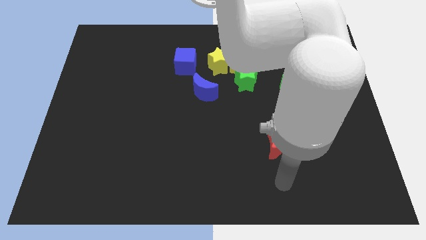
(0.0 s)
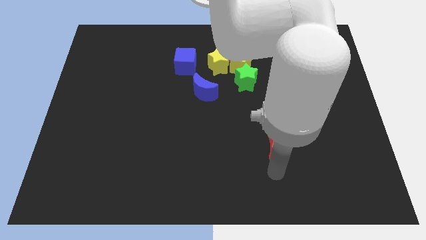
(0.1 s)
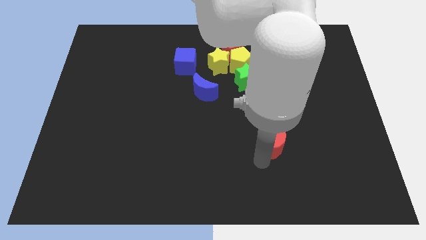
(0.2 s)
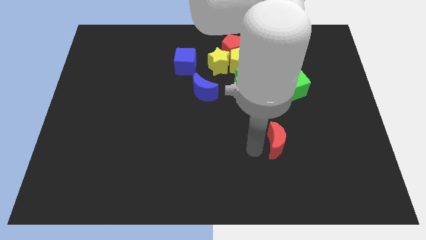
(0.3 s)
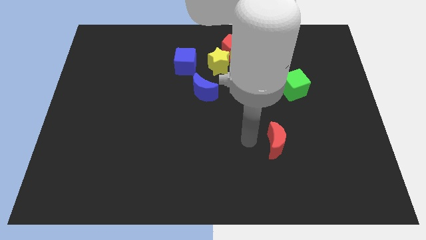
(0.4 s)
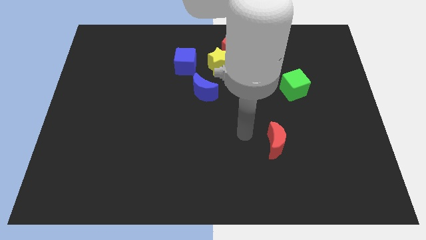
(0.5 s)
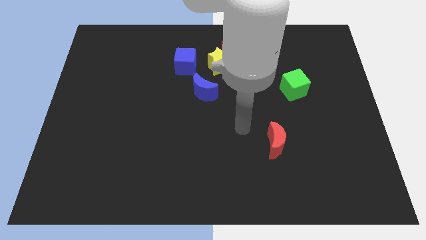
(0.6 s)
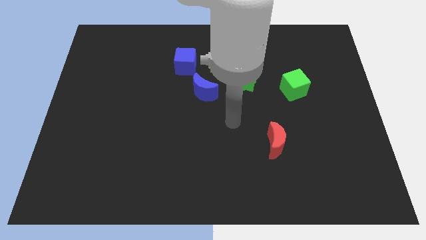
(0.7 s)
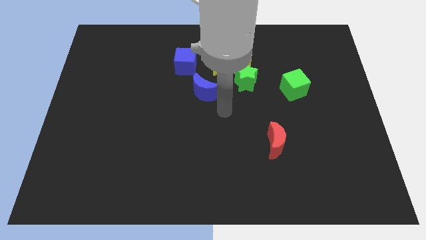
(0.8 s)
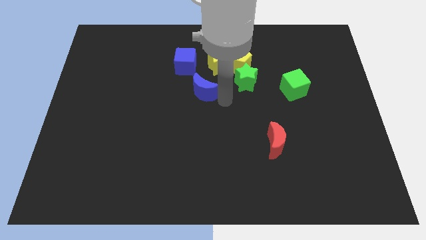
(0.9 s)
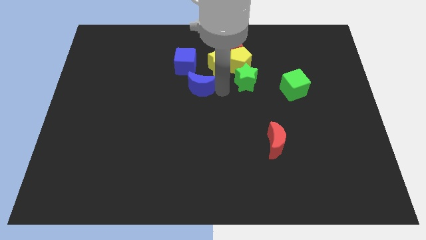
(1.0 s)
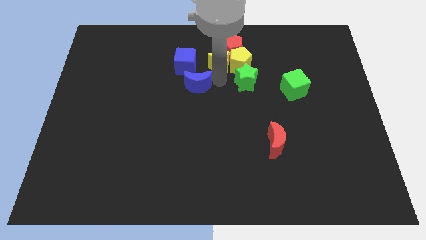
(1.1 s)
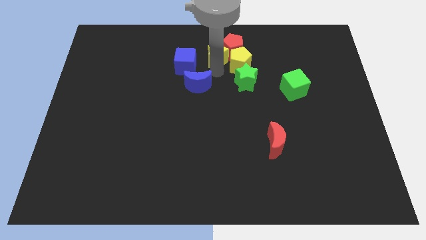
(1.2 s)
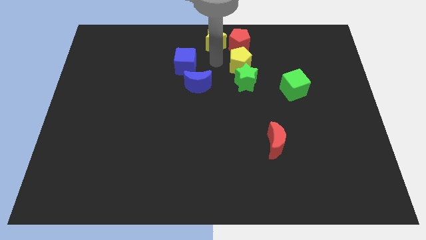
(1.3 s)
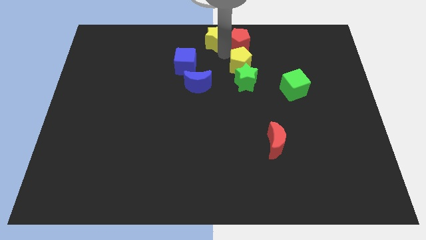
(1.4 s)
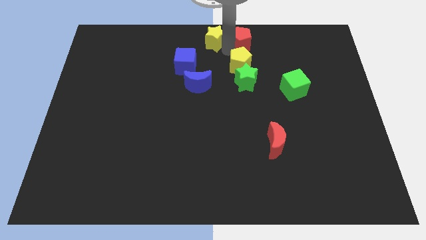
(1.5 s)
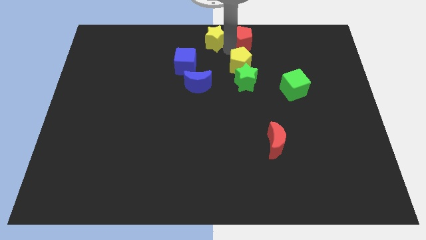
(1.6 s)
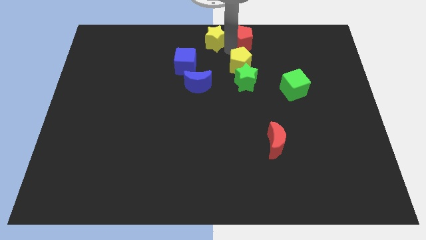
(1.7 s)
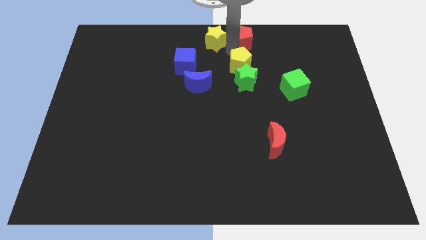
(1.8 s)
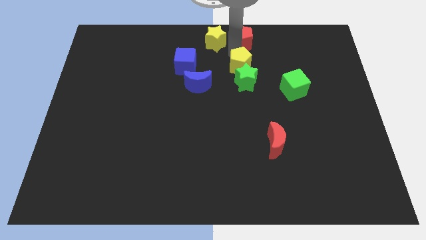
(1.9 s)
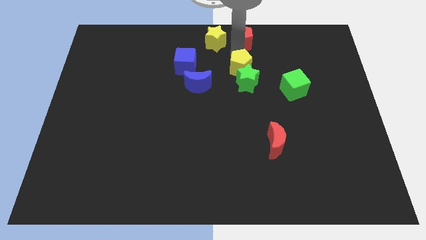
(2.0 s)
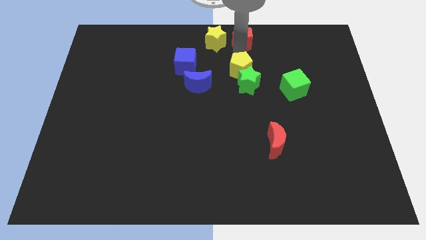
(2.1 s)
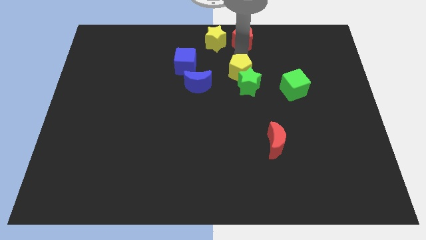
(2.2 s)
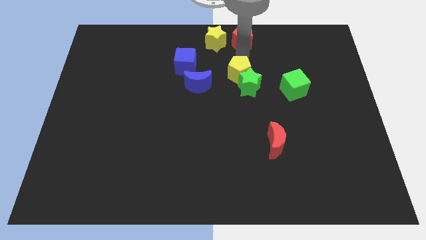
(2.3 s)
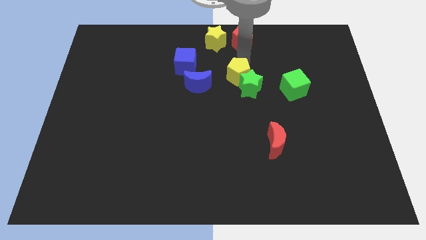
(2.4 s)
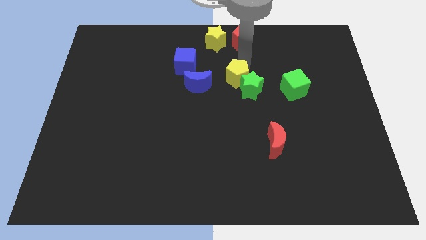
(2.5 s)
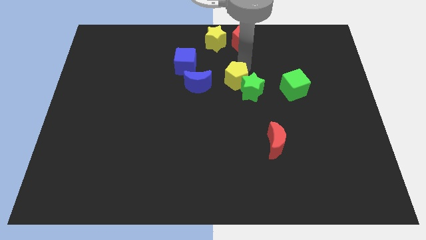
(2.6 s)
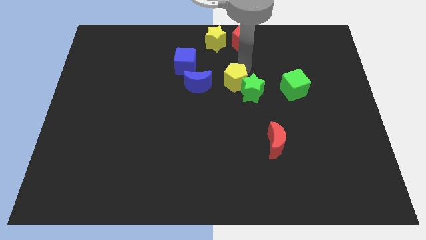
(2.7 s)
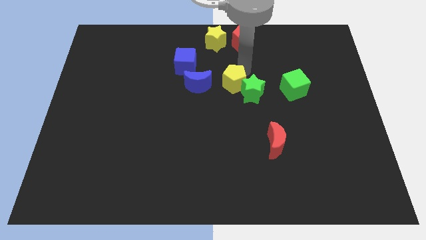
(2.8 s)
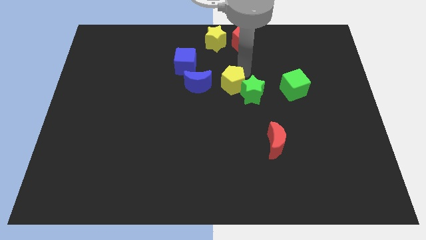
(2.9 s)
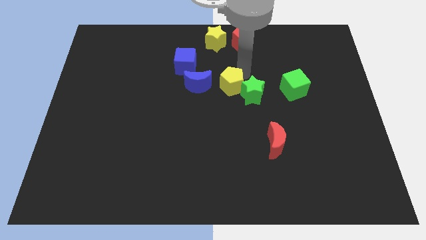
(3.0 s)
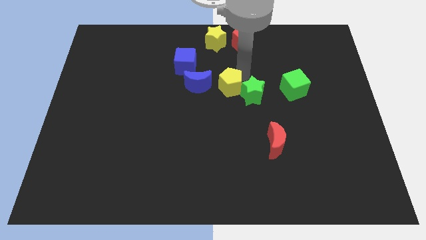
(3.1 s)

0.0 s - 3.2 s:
pull the yellow pentagon apart from the clump

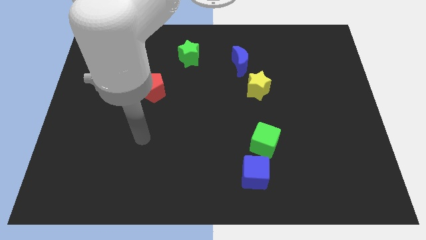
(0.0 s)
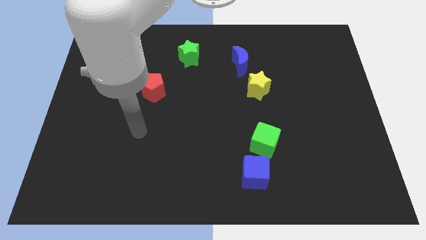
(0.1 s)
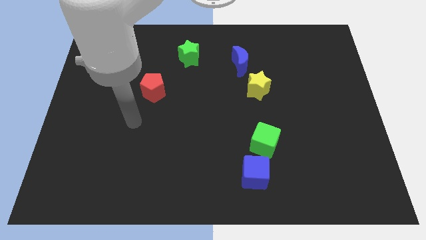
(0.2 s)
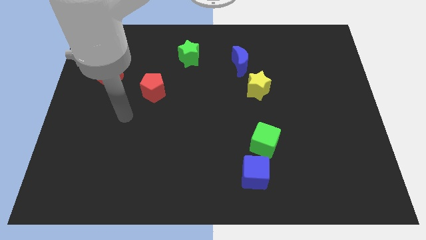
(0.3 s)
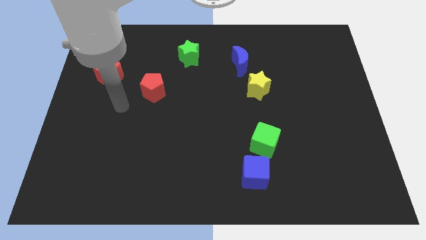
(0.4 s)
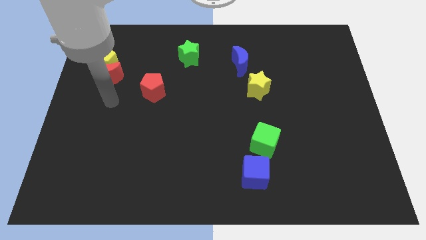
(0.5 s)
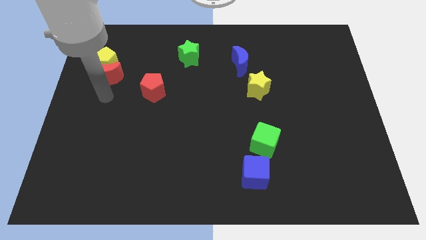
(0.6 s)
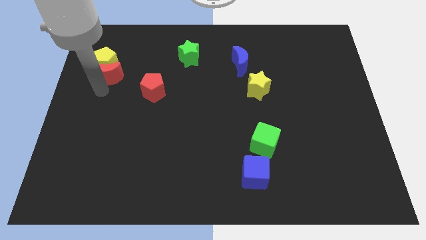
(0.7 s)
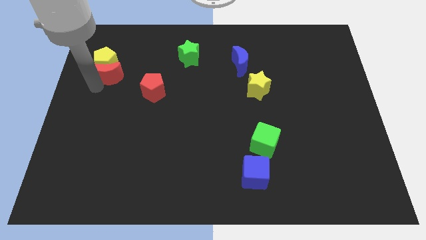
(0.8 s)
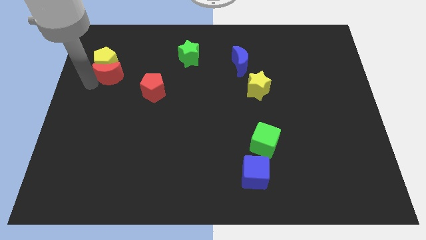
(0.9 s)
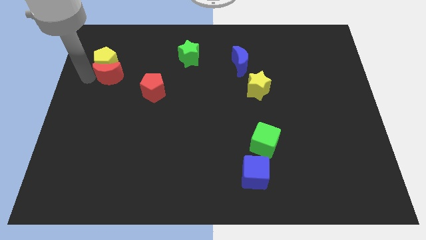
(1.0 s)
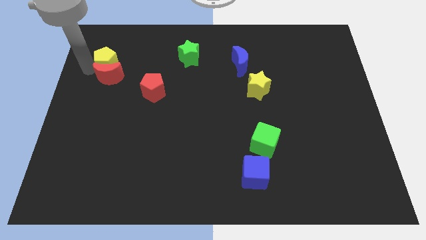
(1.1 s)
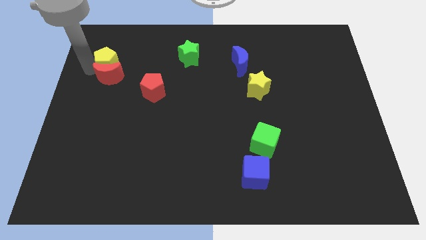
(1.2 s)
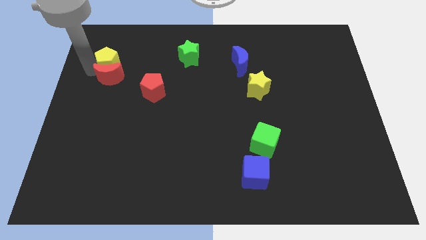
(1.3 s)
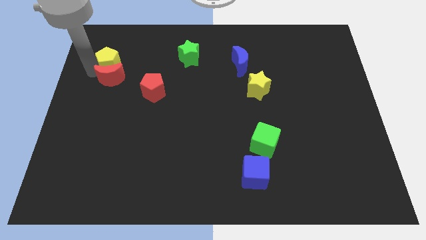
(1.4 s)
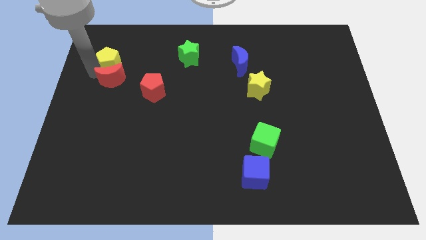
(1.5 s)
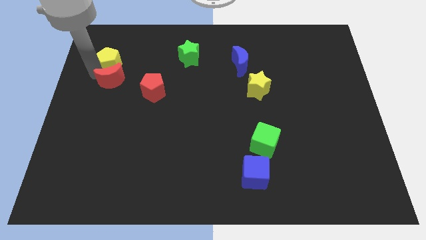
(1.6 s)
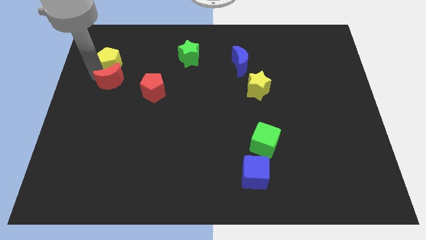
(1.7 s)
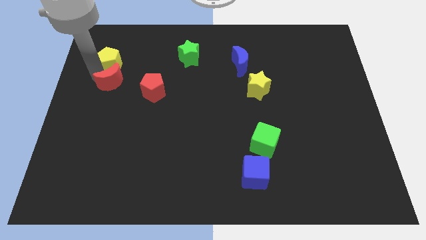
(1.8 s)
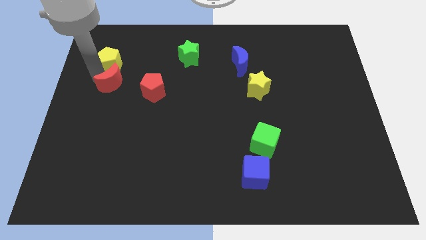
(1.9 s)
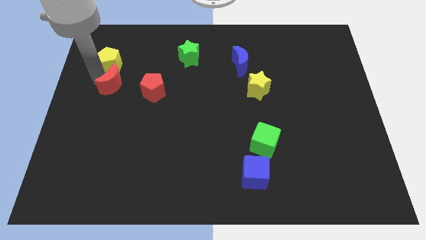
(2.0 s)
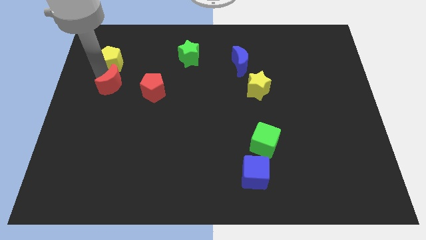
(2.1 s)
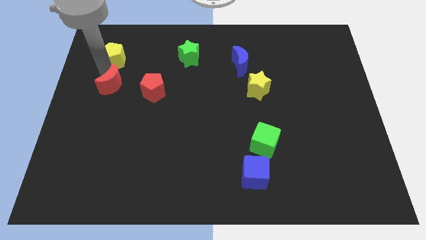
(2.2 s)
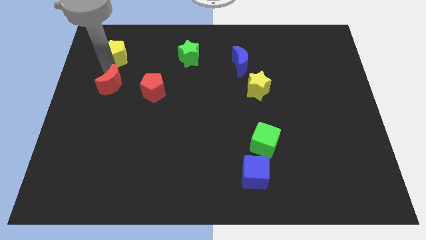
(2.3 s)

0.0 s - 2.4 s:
separate the red moon from the yellow pentagon

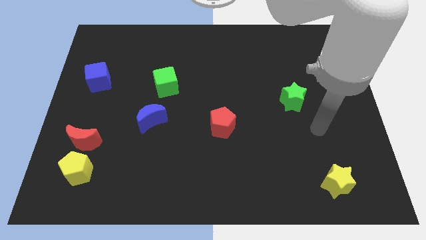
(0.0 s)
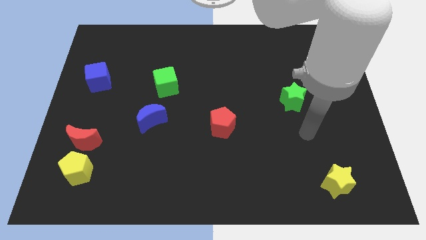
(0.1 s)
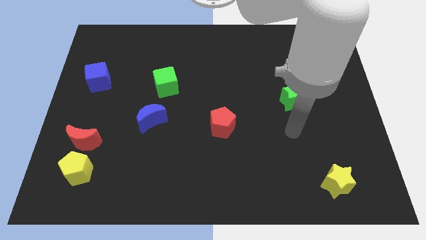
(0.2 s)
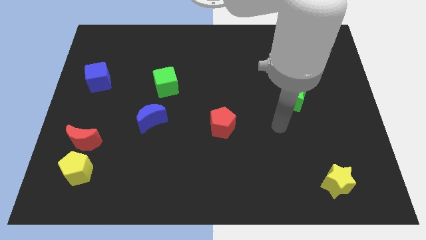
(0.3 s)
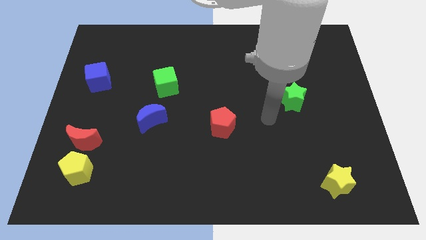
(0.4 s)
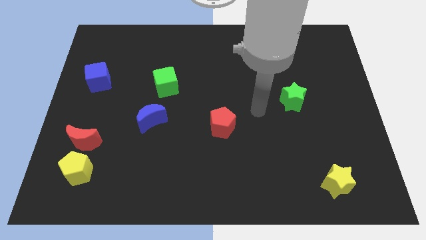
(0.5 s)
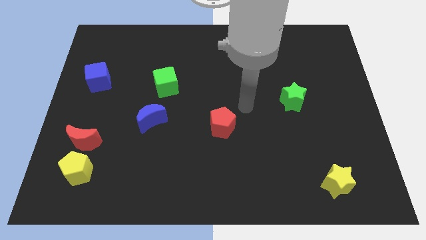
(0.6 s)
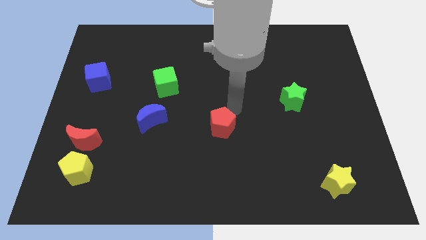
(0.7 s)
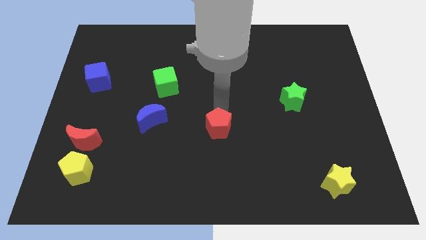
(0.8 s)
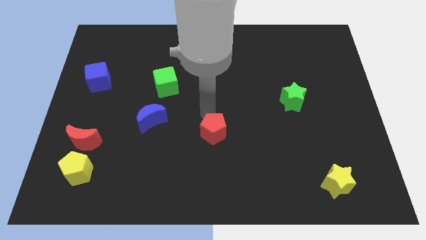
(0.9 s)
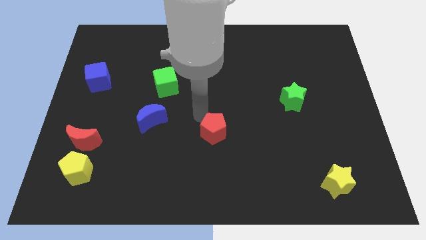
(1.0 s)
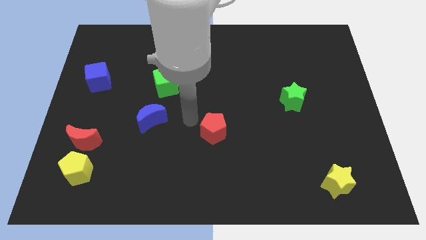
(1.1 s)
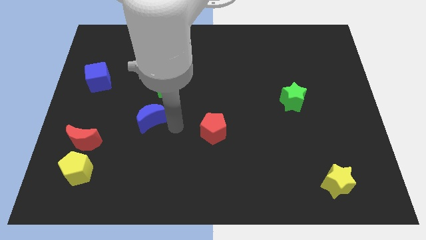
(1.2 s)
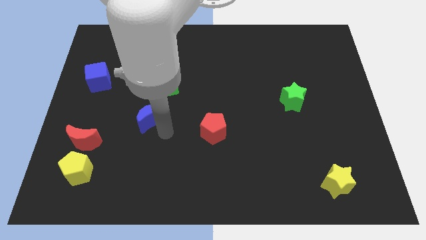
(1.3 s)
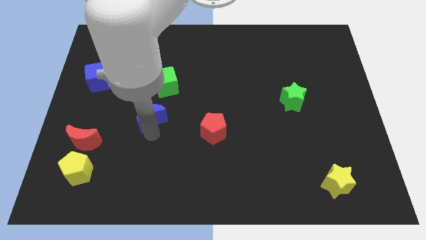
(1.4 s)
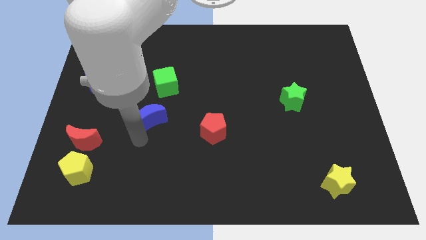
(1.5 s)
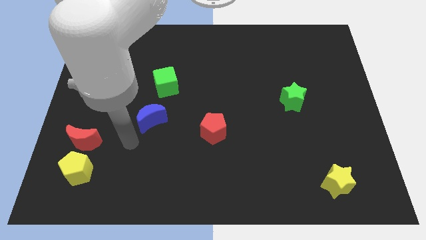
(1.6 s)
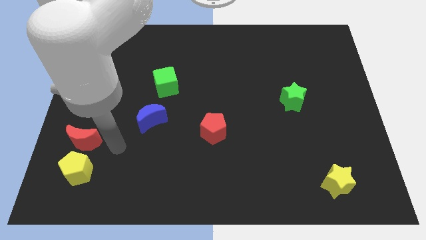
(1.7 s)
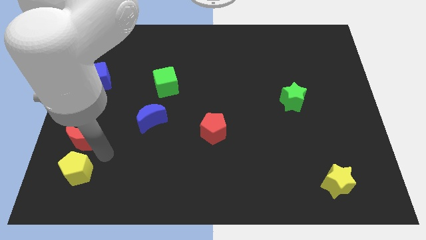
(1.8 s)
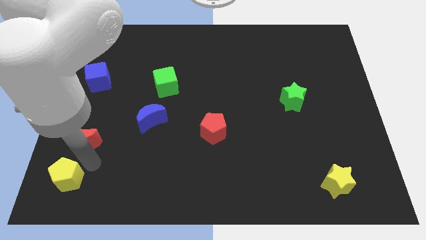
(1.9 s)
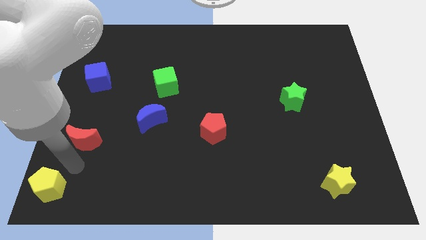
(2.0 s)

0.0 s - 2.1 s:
move the red moon away from the yellow pentagon

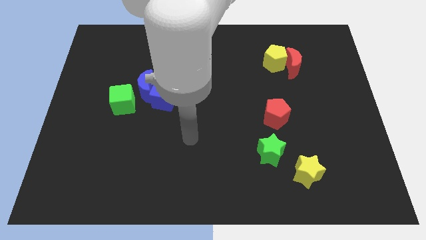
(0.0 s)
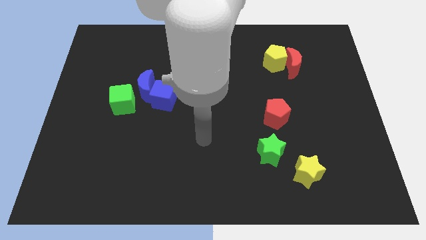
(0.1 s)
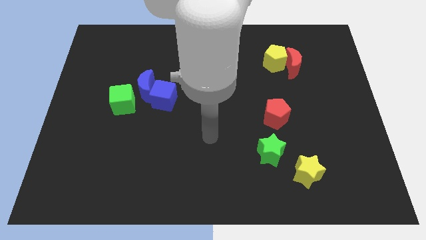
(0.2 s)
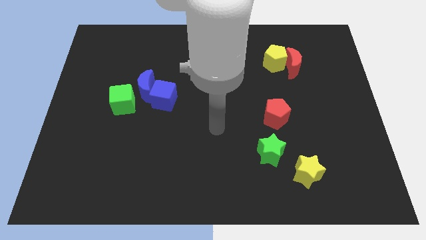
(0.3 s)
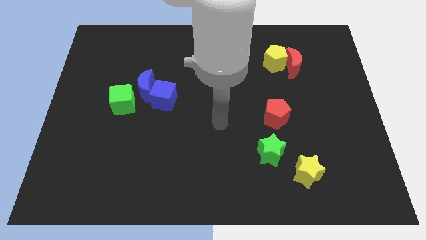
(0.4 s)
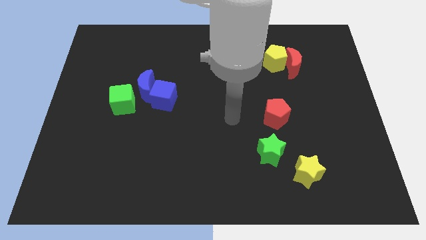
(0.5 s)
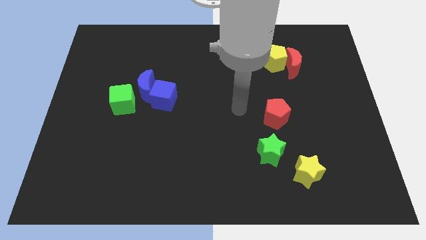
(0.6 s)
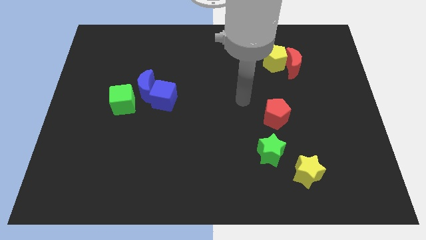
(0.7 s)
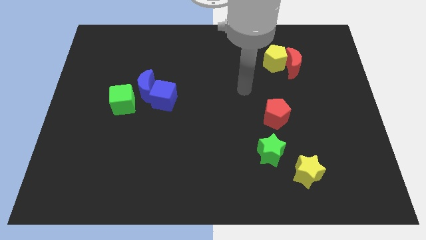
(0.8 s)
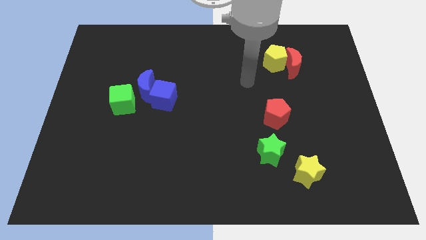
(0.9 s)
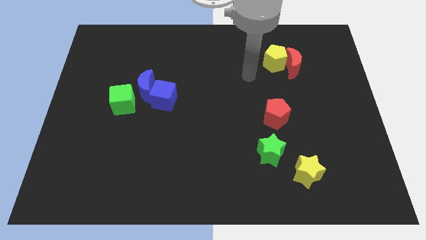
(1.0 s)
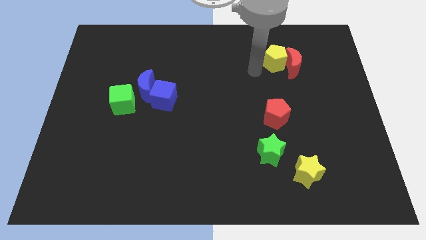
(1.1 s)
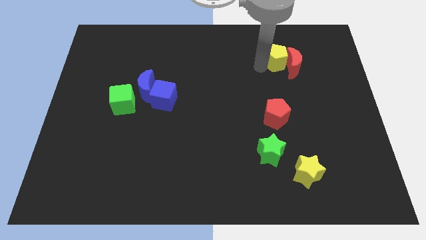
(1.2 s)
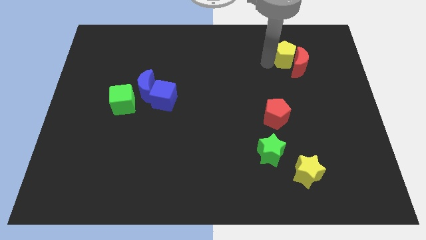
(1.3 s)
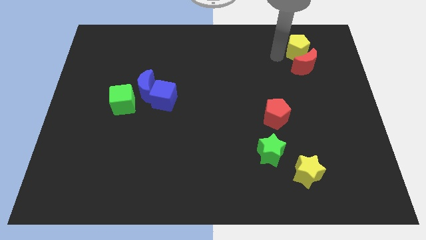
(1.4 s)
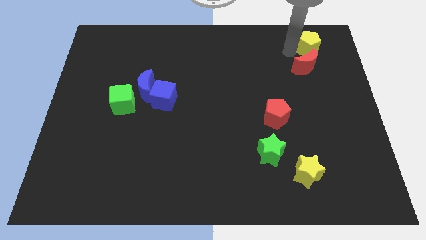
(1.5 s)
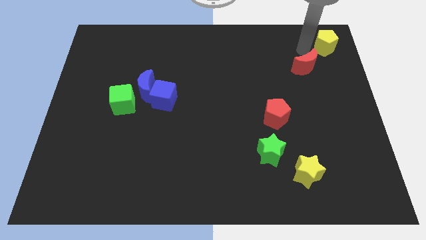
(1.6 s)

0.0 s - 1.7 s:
pull the red moon apart from the yellow pentagon
